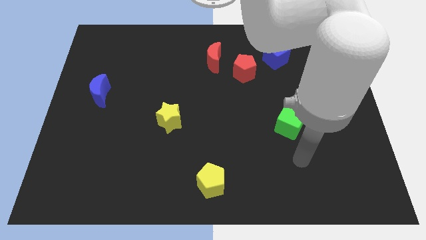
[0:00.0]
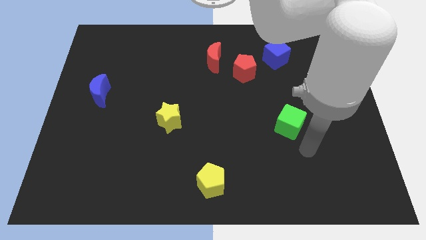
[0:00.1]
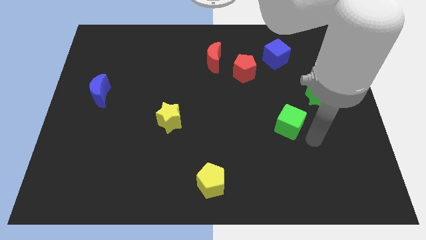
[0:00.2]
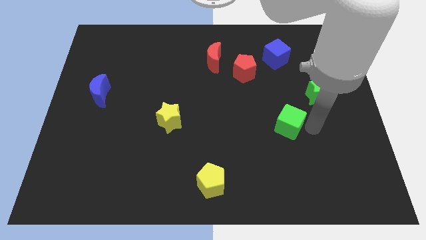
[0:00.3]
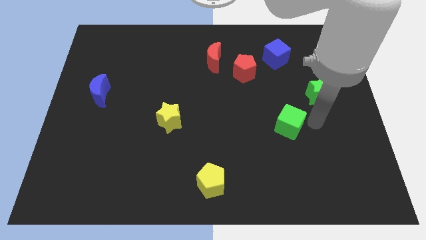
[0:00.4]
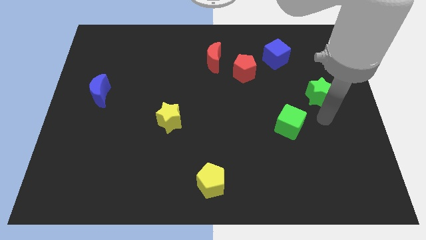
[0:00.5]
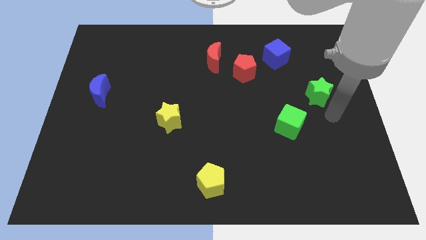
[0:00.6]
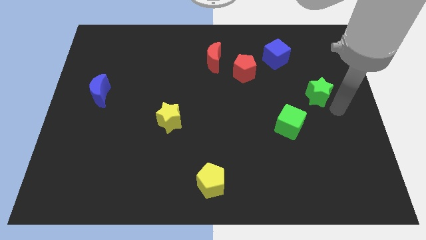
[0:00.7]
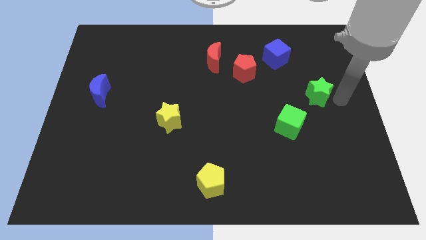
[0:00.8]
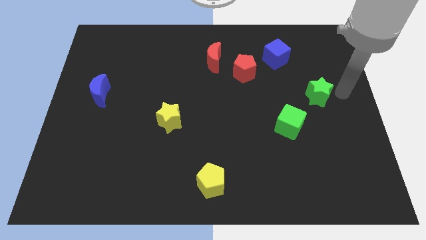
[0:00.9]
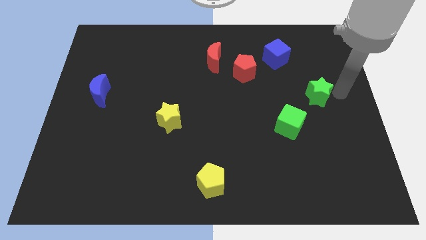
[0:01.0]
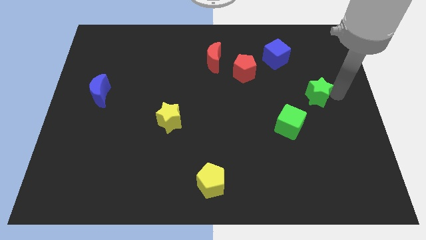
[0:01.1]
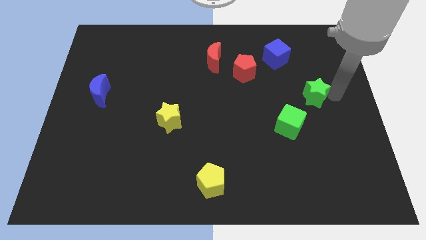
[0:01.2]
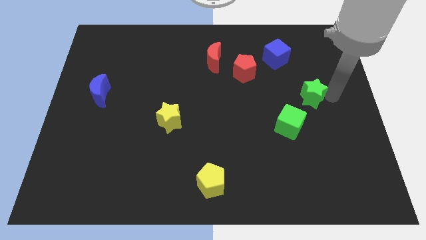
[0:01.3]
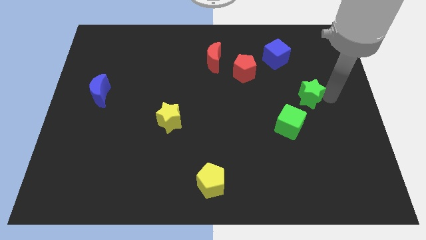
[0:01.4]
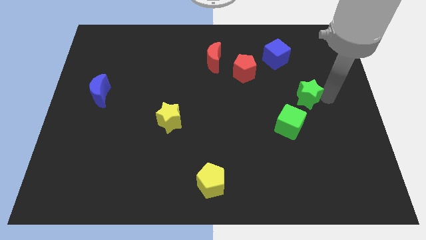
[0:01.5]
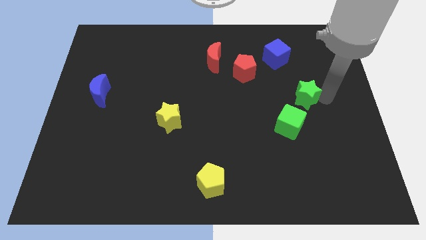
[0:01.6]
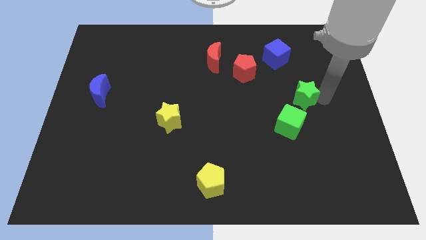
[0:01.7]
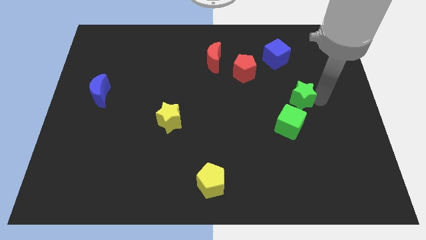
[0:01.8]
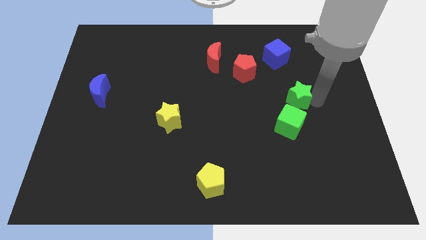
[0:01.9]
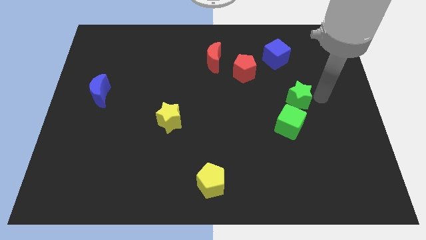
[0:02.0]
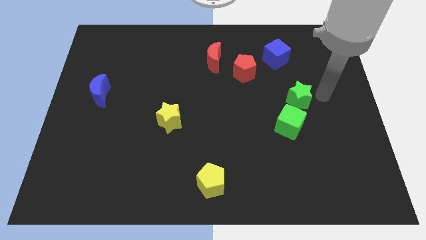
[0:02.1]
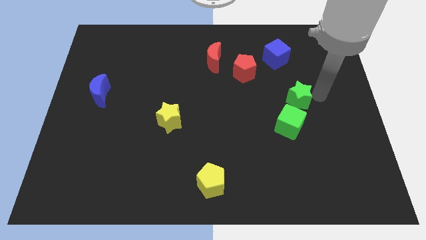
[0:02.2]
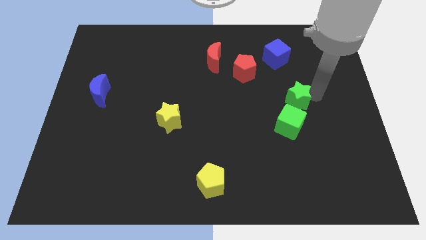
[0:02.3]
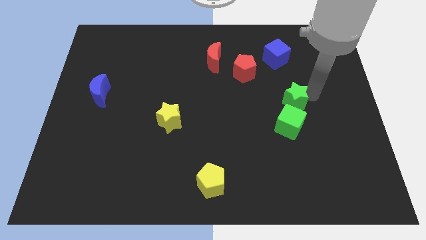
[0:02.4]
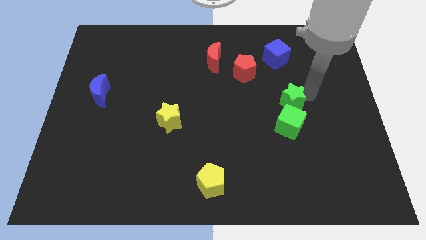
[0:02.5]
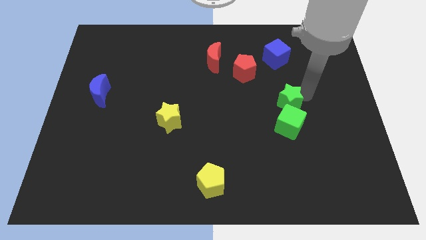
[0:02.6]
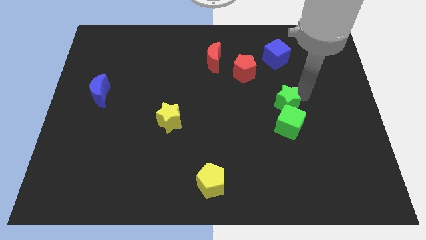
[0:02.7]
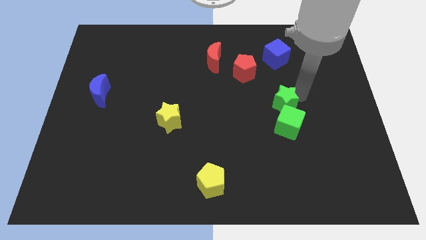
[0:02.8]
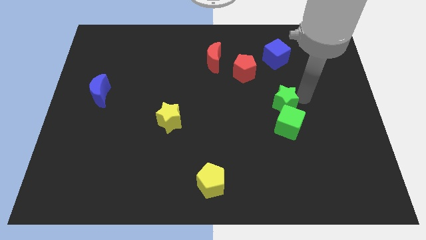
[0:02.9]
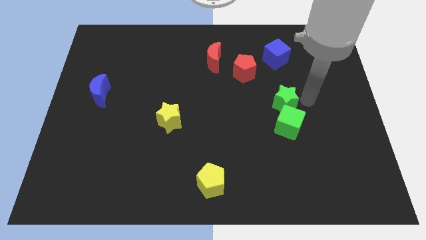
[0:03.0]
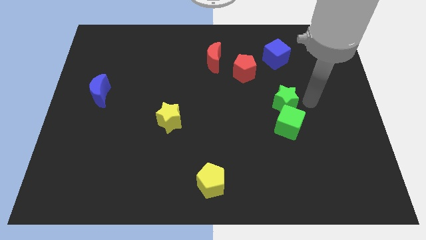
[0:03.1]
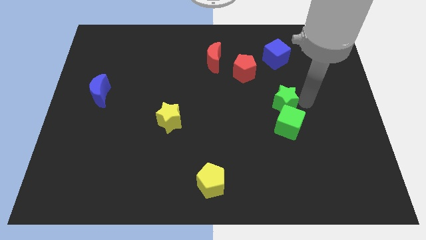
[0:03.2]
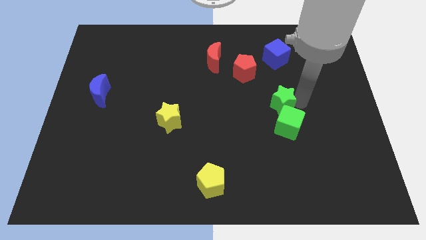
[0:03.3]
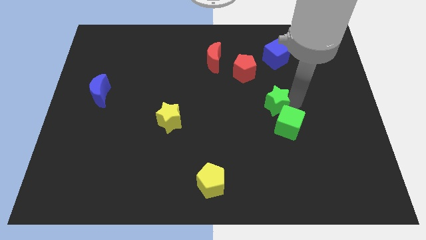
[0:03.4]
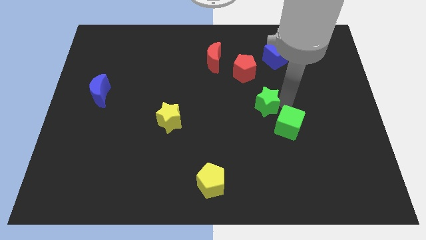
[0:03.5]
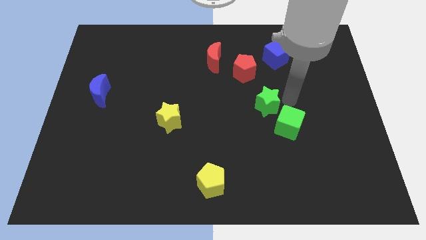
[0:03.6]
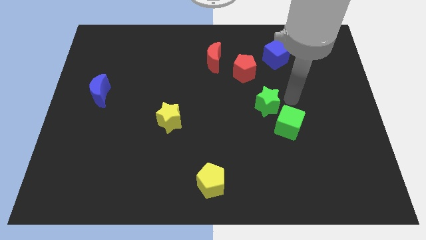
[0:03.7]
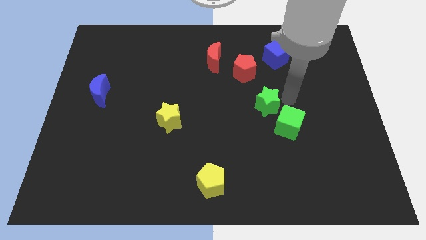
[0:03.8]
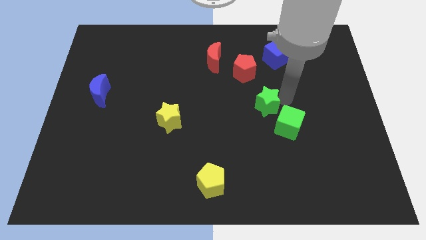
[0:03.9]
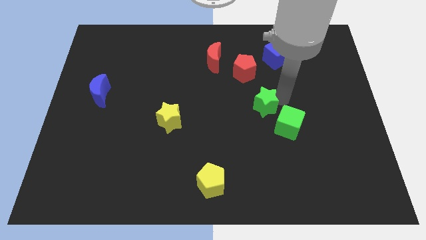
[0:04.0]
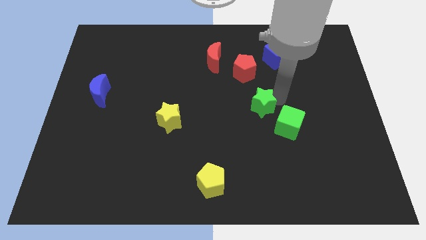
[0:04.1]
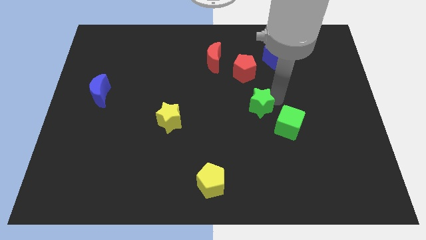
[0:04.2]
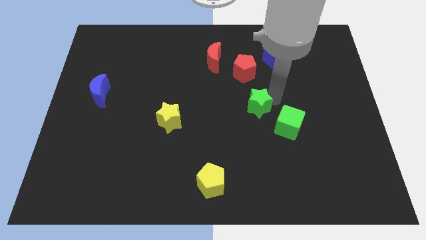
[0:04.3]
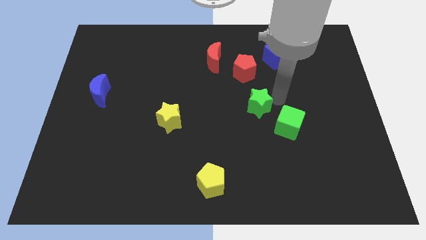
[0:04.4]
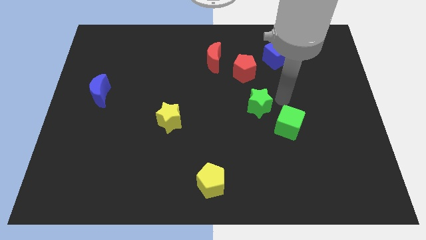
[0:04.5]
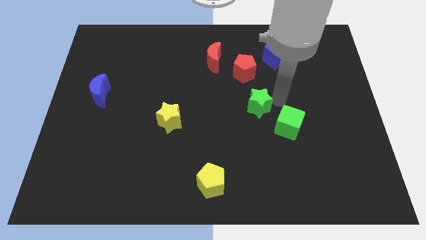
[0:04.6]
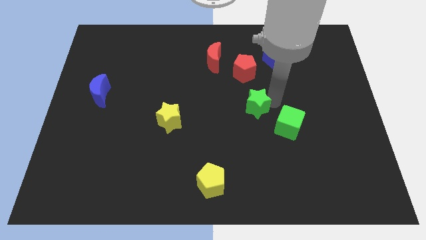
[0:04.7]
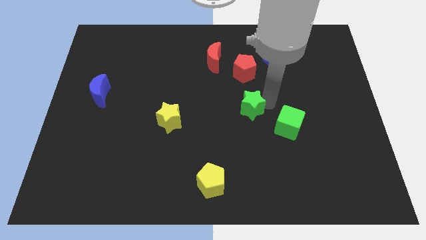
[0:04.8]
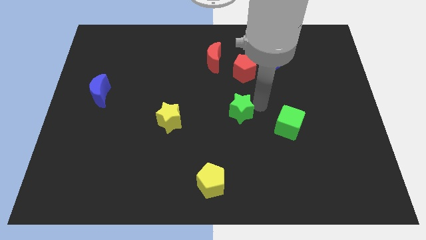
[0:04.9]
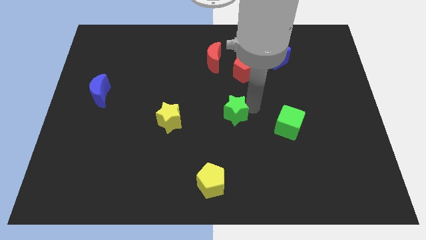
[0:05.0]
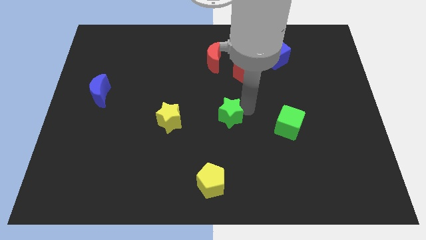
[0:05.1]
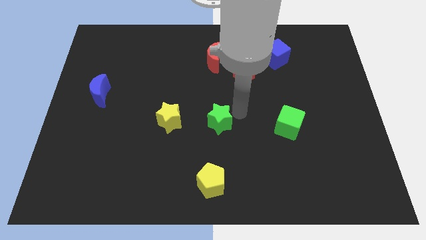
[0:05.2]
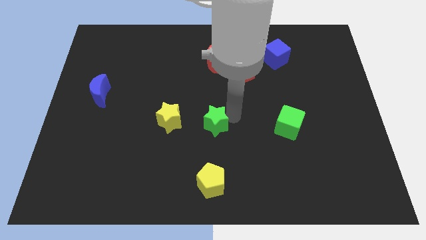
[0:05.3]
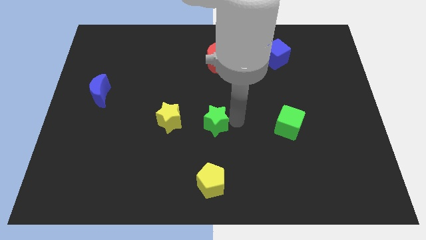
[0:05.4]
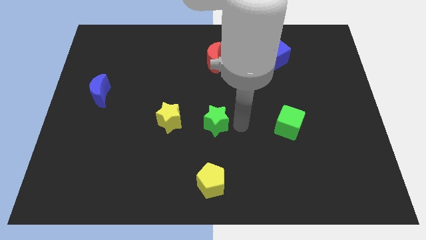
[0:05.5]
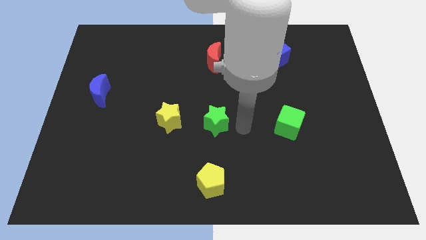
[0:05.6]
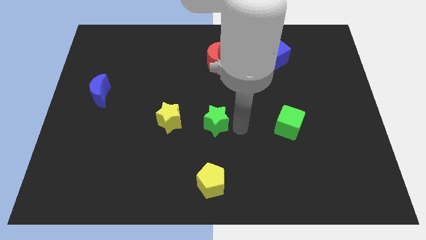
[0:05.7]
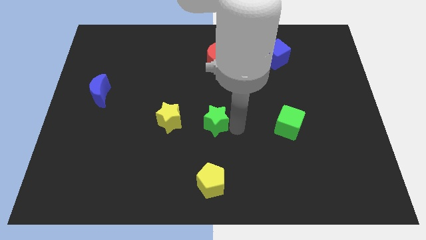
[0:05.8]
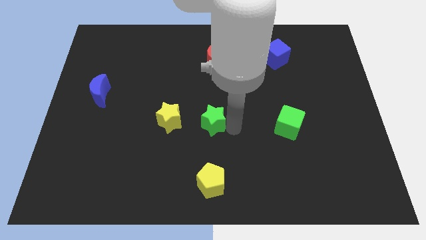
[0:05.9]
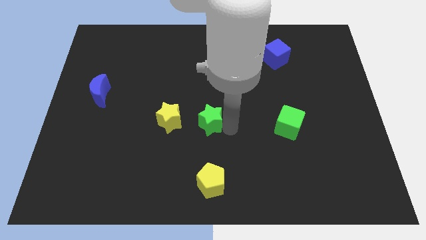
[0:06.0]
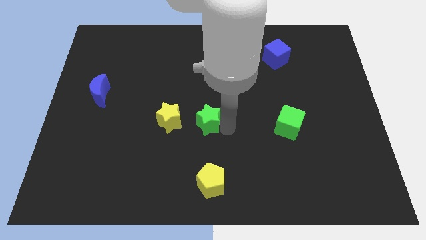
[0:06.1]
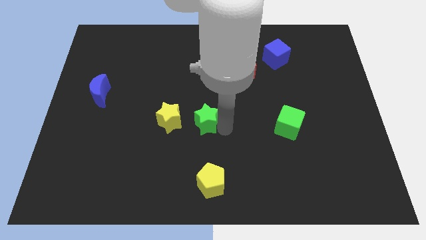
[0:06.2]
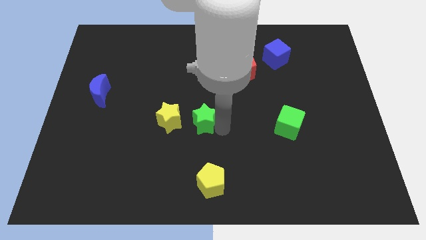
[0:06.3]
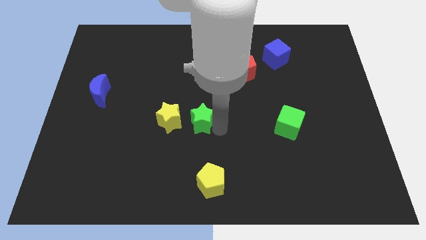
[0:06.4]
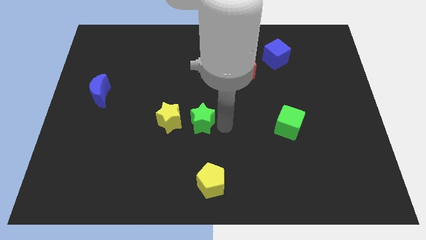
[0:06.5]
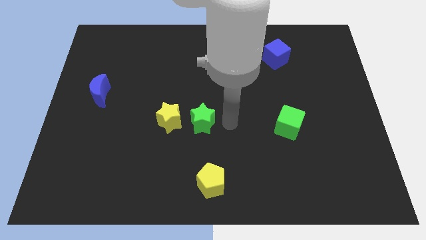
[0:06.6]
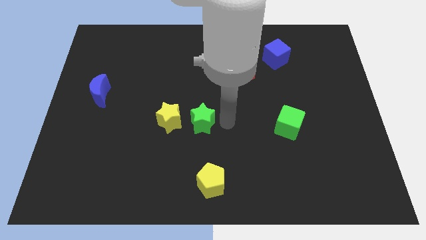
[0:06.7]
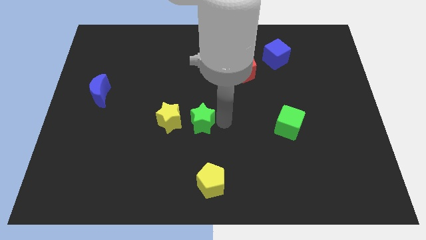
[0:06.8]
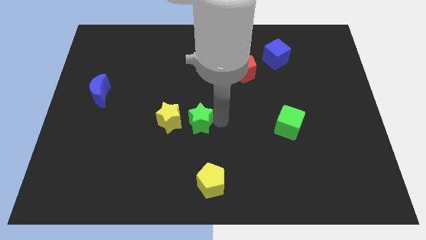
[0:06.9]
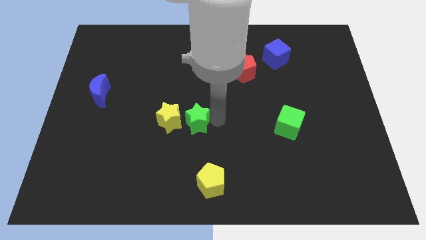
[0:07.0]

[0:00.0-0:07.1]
slide the green star next to the yellow star
